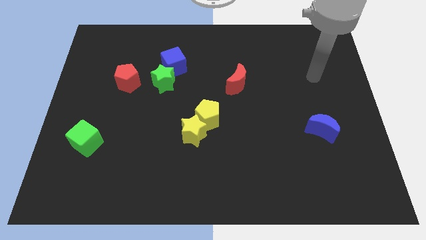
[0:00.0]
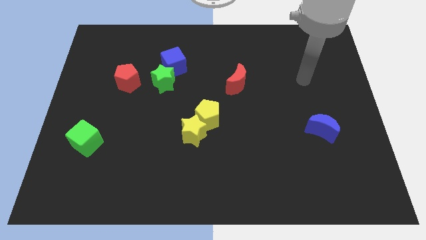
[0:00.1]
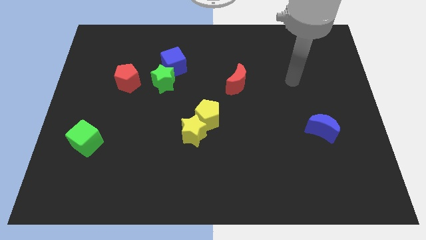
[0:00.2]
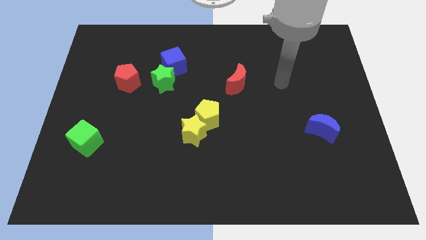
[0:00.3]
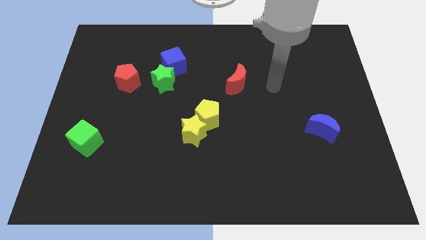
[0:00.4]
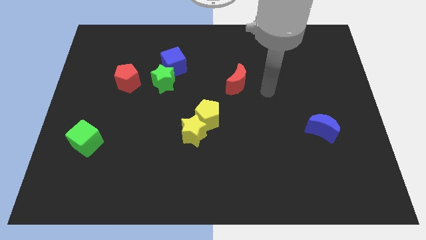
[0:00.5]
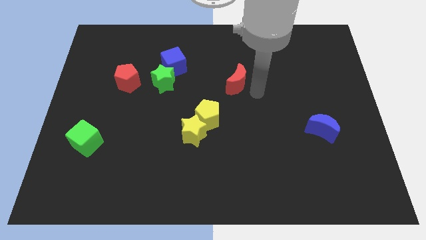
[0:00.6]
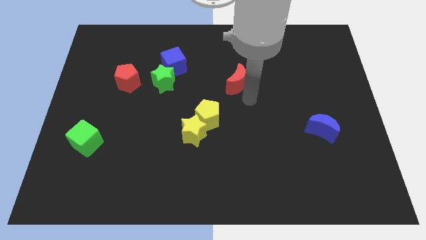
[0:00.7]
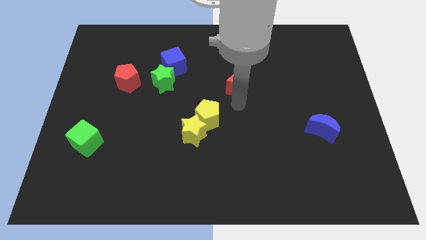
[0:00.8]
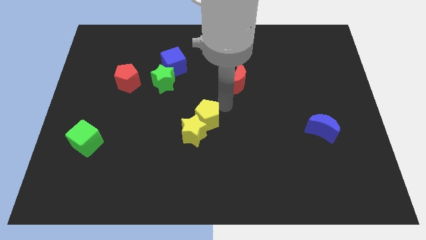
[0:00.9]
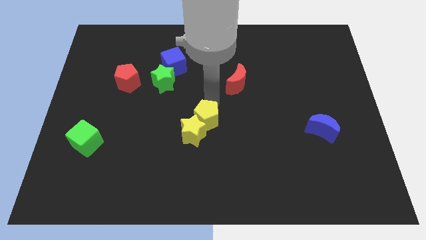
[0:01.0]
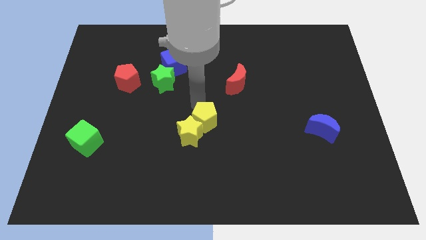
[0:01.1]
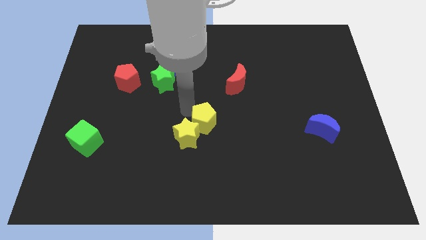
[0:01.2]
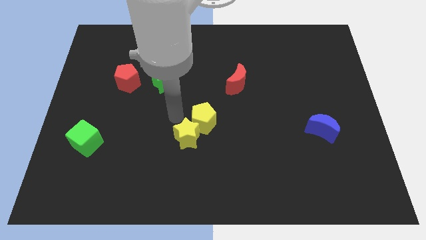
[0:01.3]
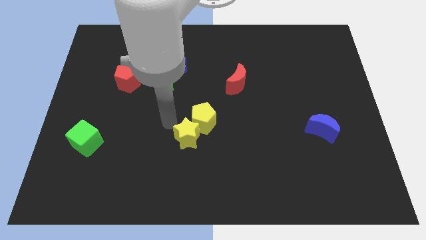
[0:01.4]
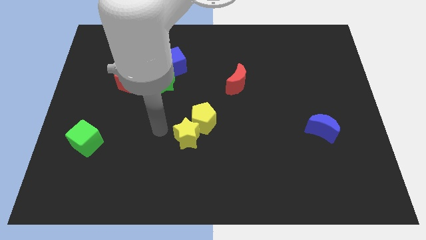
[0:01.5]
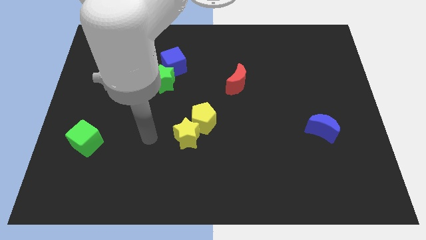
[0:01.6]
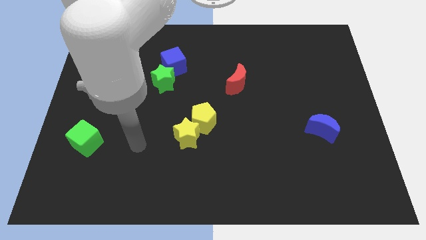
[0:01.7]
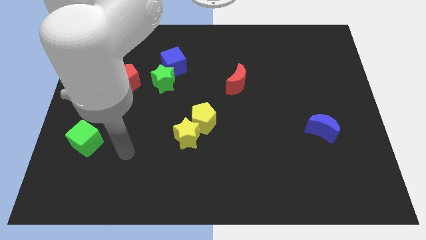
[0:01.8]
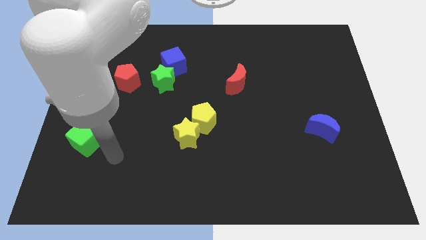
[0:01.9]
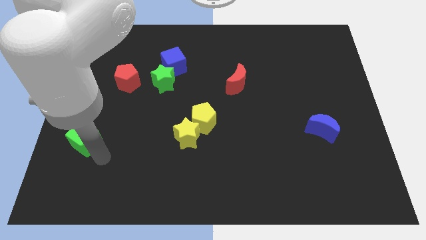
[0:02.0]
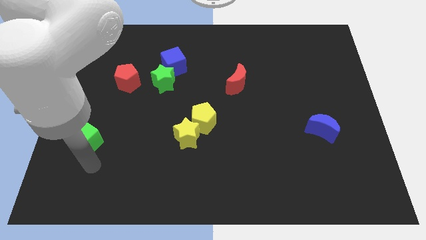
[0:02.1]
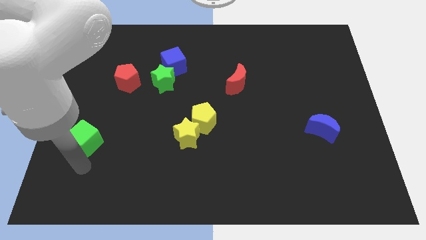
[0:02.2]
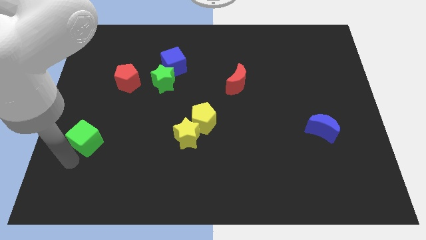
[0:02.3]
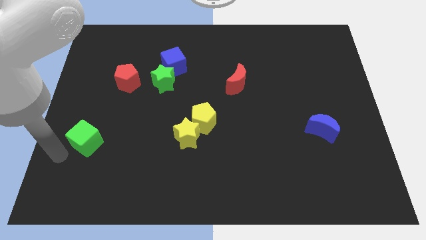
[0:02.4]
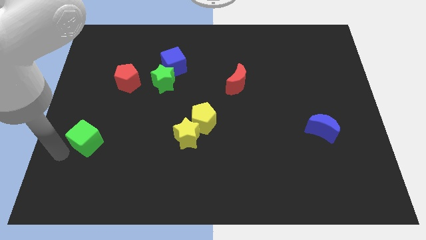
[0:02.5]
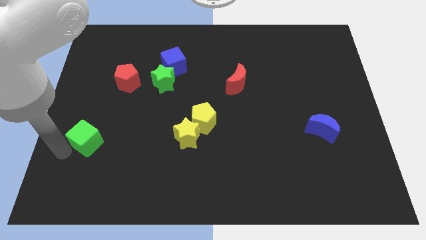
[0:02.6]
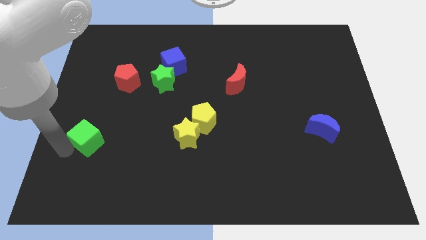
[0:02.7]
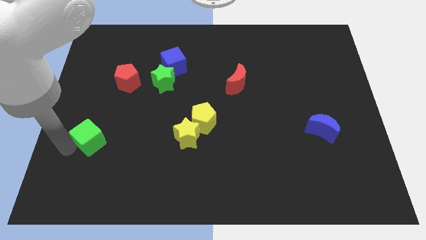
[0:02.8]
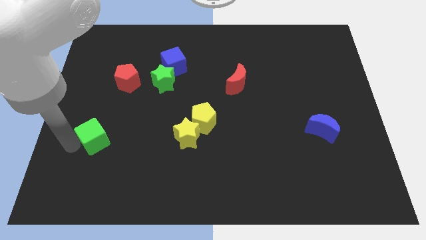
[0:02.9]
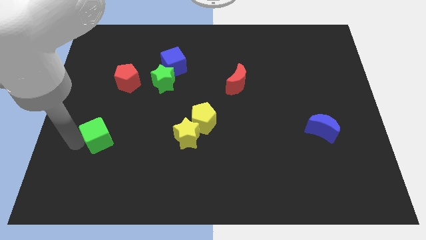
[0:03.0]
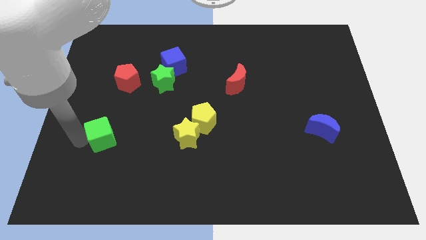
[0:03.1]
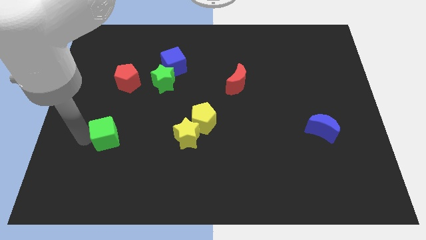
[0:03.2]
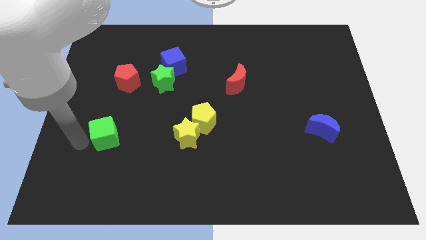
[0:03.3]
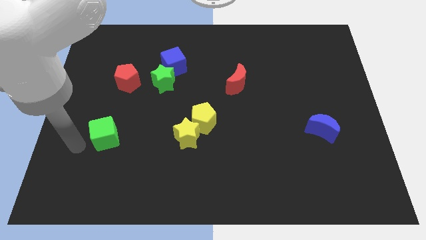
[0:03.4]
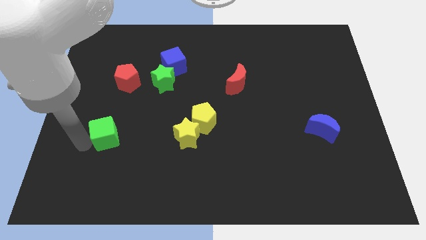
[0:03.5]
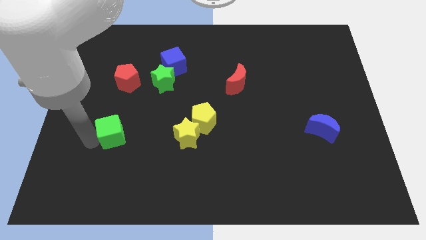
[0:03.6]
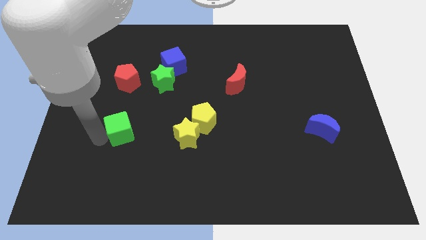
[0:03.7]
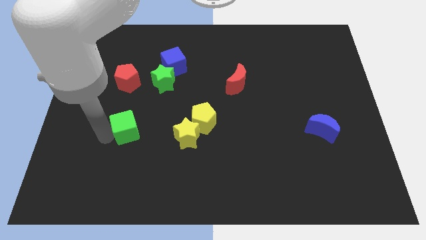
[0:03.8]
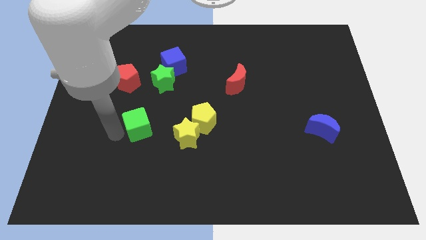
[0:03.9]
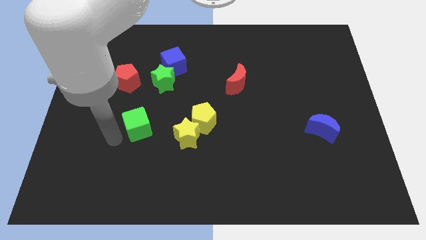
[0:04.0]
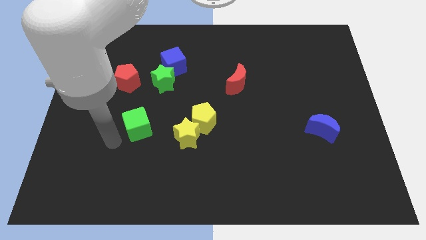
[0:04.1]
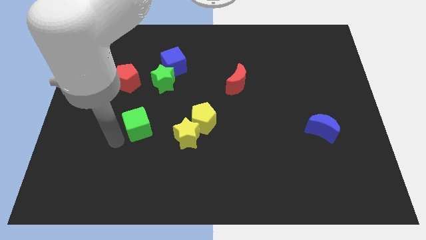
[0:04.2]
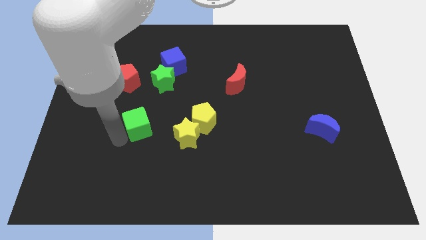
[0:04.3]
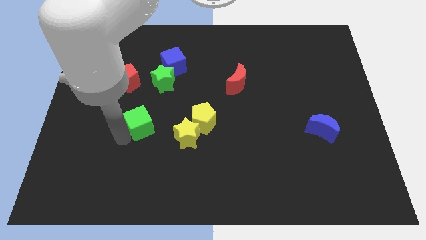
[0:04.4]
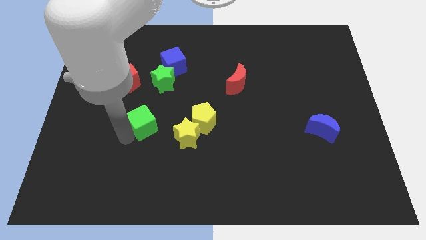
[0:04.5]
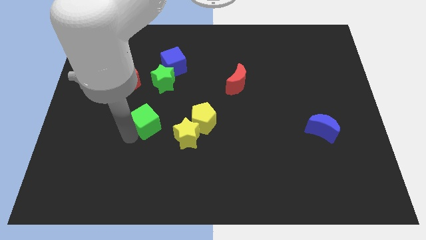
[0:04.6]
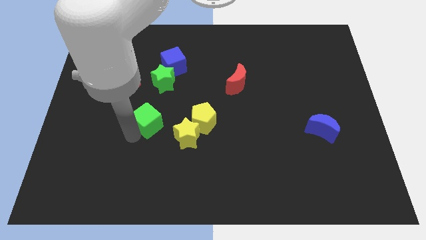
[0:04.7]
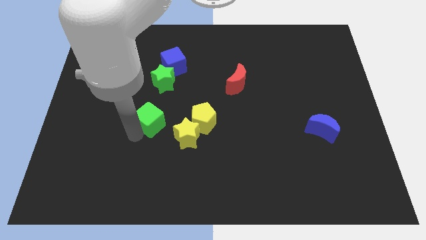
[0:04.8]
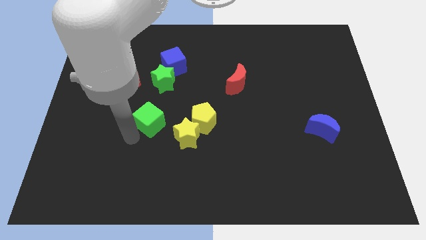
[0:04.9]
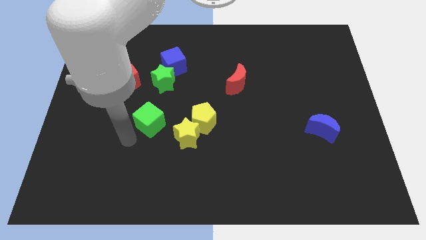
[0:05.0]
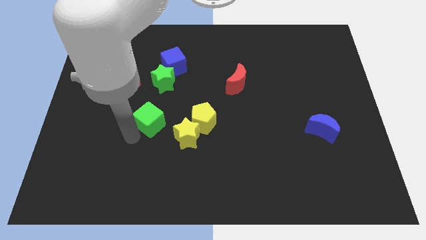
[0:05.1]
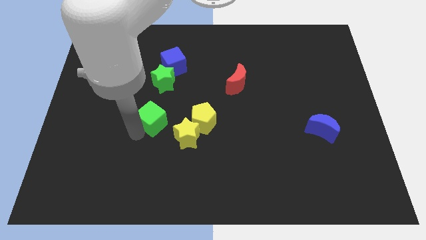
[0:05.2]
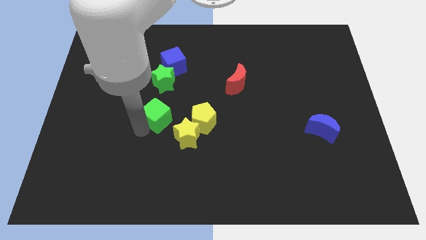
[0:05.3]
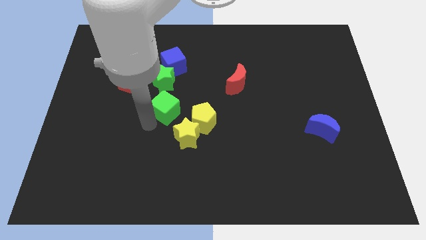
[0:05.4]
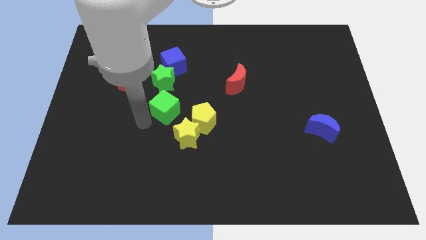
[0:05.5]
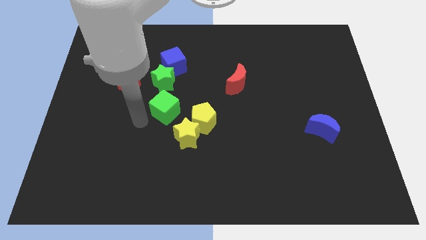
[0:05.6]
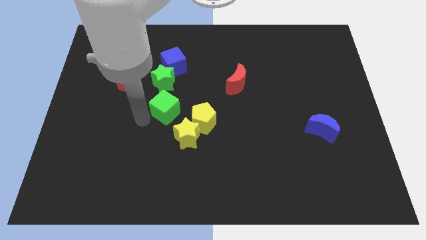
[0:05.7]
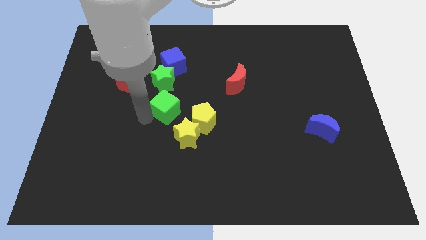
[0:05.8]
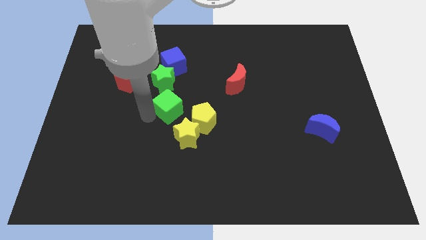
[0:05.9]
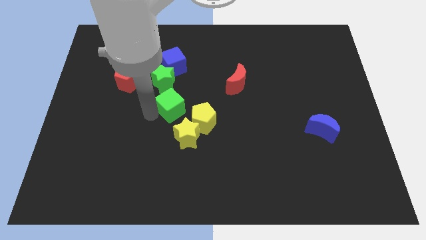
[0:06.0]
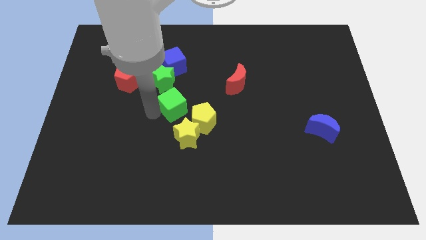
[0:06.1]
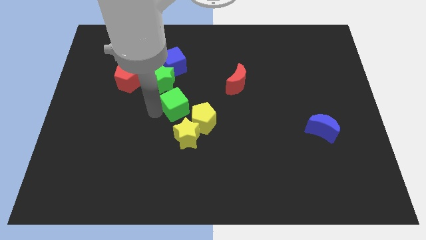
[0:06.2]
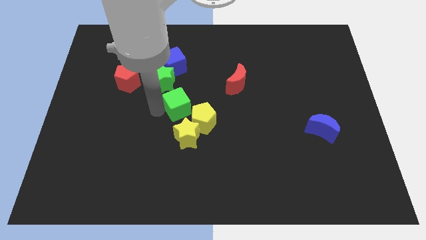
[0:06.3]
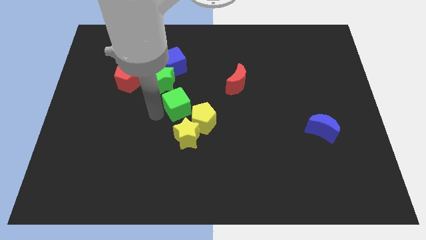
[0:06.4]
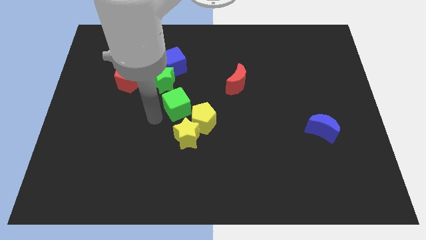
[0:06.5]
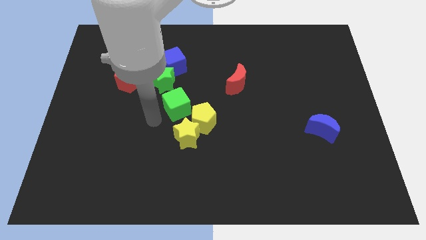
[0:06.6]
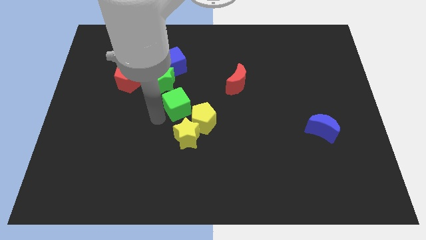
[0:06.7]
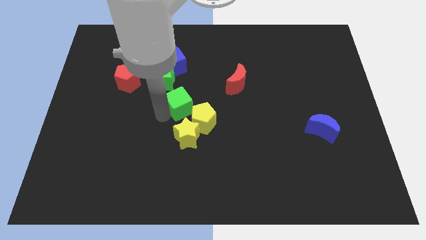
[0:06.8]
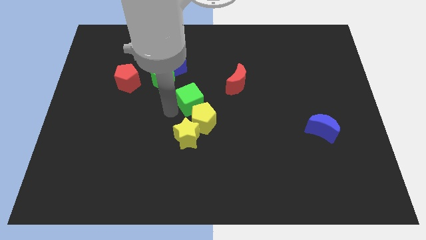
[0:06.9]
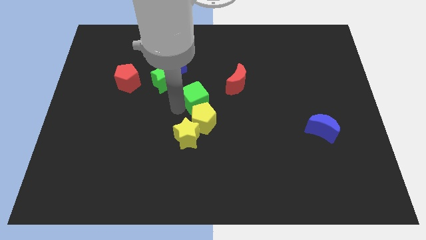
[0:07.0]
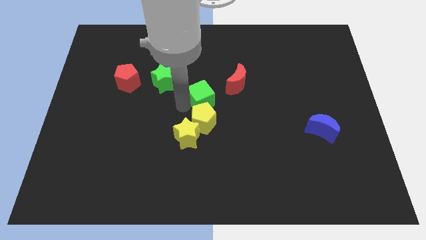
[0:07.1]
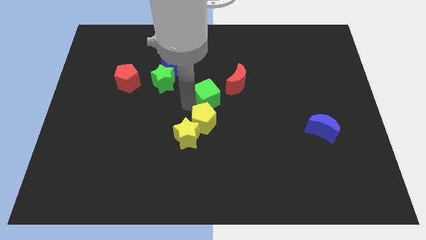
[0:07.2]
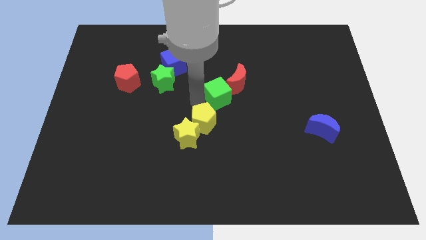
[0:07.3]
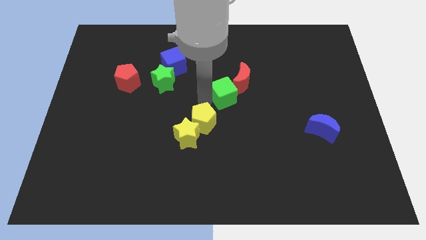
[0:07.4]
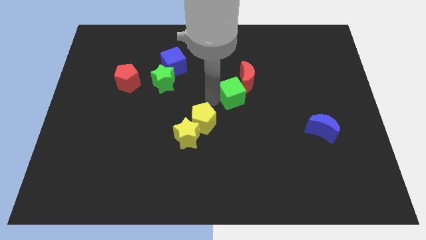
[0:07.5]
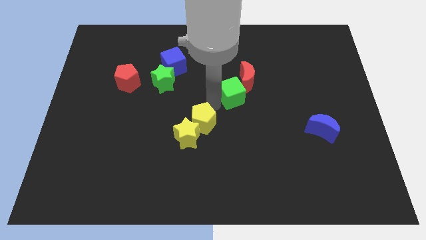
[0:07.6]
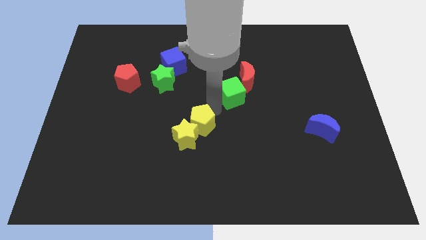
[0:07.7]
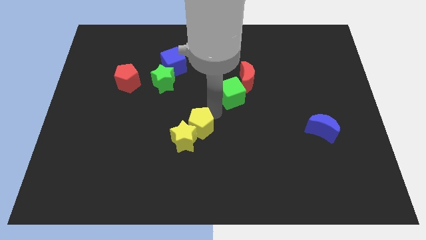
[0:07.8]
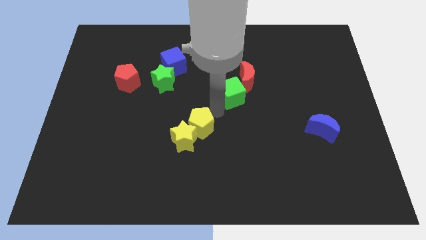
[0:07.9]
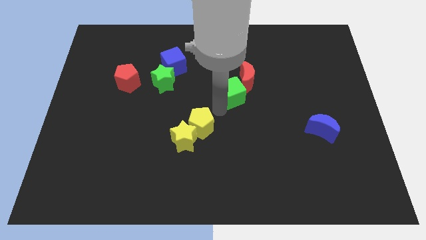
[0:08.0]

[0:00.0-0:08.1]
push the green cube to the red moon
